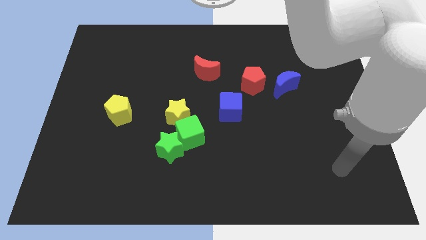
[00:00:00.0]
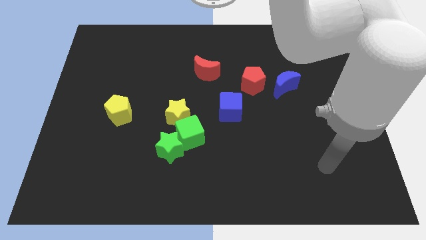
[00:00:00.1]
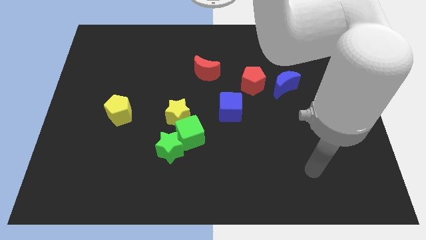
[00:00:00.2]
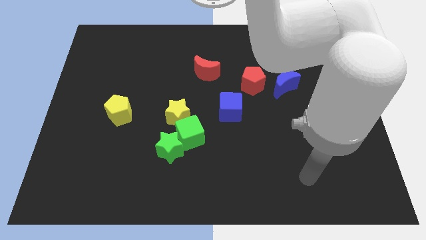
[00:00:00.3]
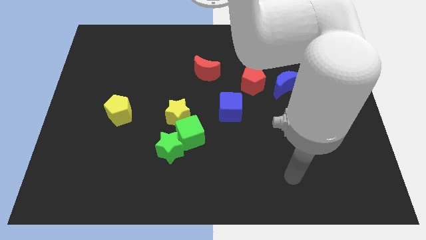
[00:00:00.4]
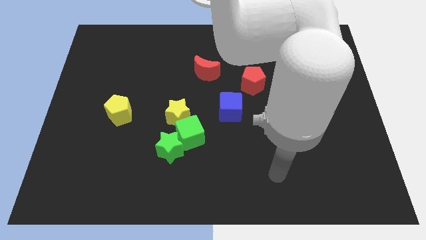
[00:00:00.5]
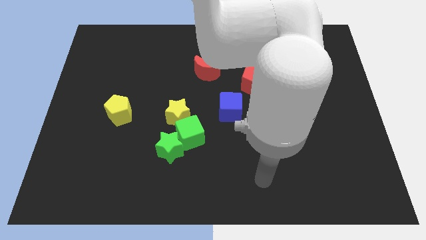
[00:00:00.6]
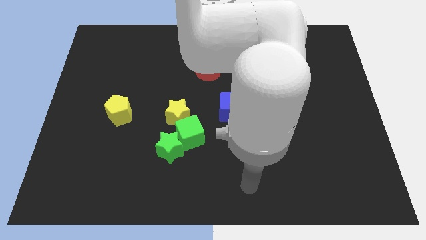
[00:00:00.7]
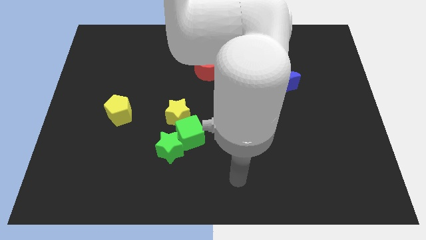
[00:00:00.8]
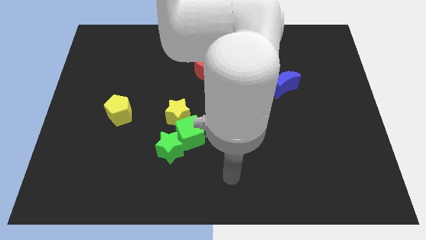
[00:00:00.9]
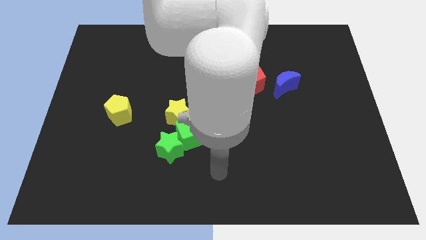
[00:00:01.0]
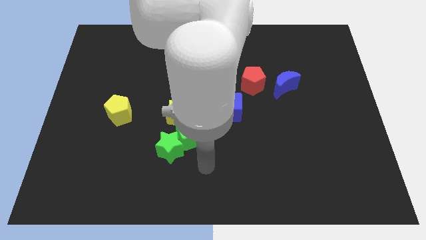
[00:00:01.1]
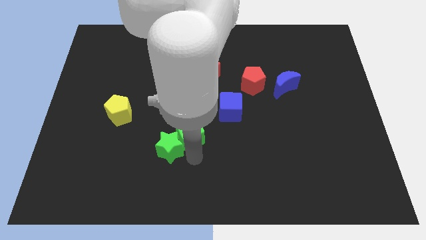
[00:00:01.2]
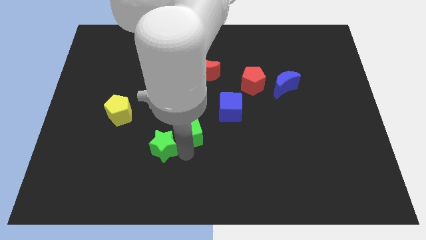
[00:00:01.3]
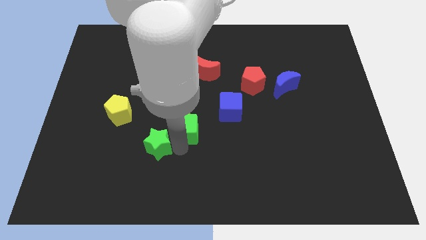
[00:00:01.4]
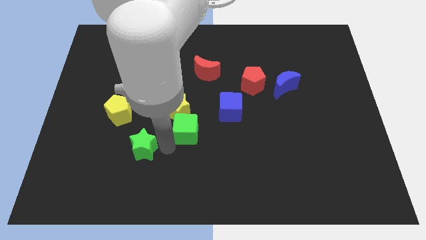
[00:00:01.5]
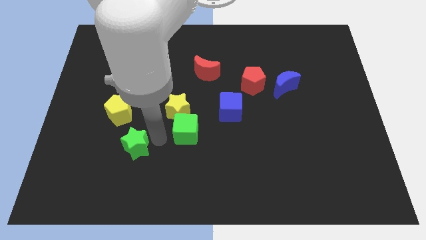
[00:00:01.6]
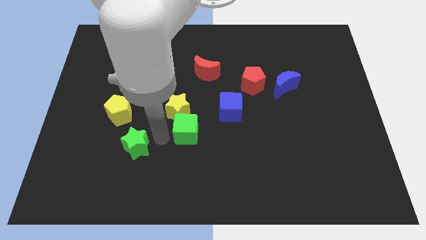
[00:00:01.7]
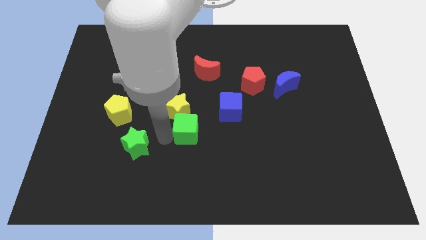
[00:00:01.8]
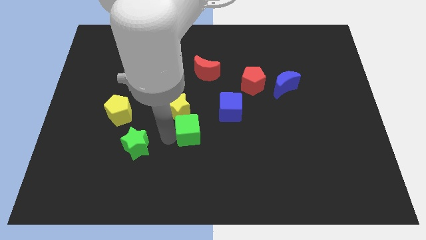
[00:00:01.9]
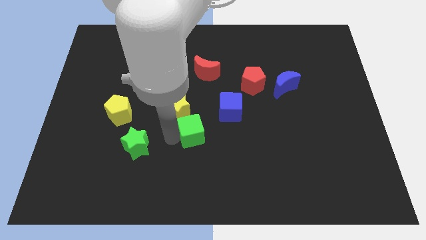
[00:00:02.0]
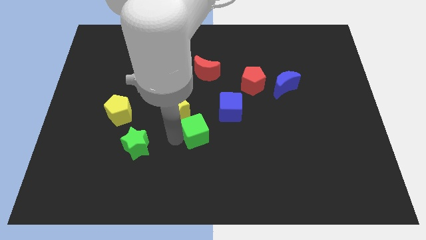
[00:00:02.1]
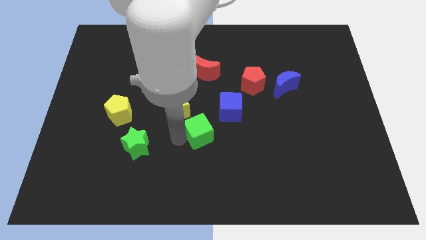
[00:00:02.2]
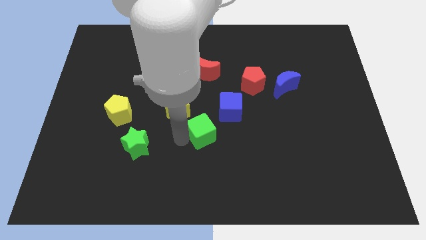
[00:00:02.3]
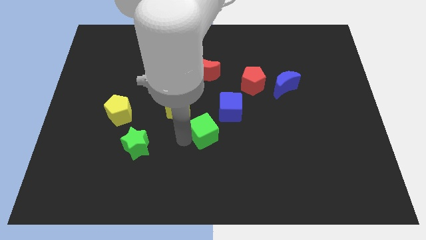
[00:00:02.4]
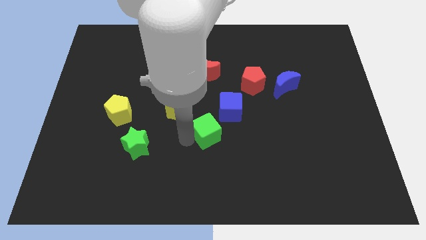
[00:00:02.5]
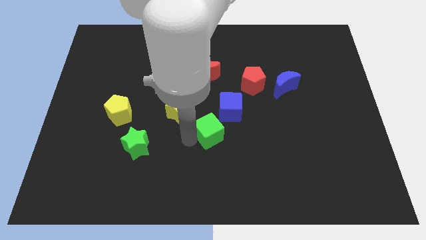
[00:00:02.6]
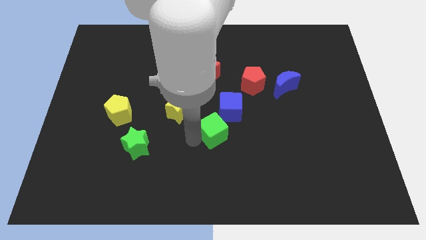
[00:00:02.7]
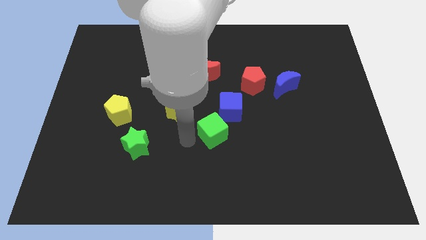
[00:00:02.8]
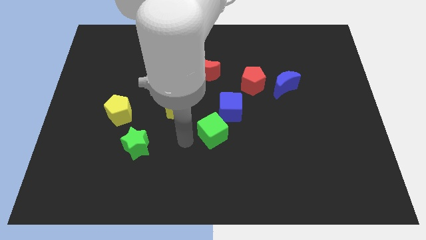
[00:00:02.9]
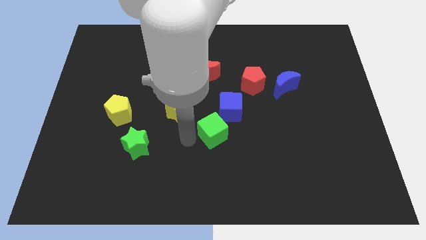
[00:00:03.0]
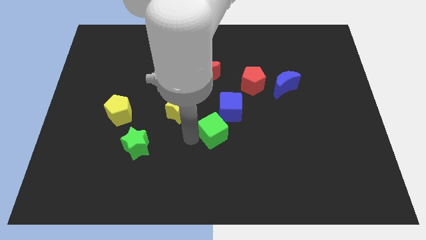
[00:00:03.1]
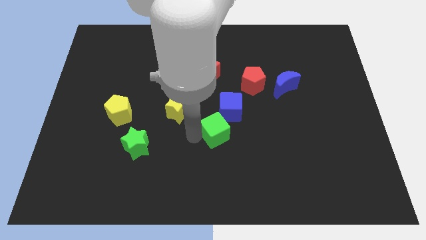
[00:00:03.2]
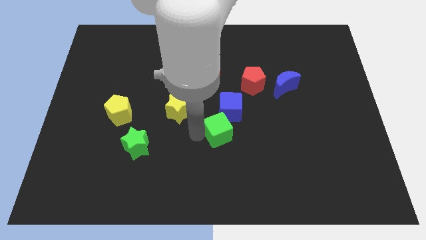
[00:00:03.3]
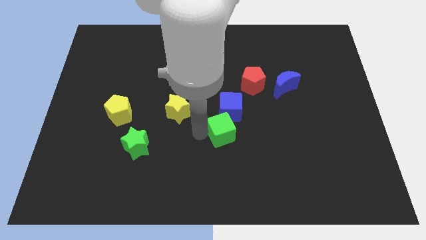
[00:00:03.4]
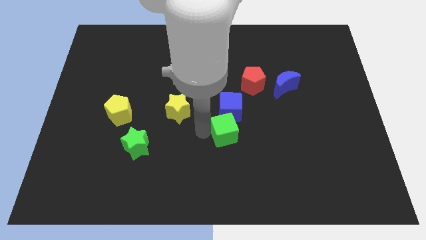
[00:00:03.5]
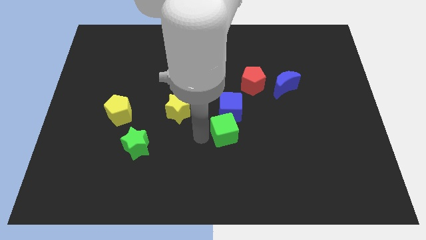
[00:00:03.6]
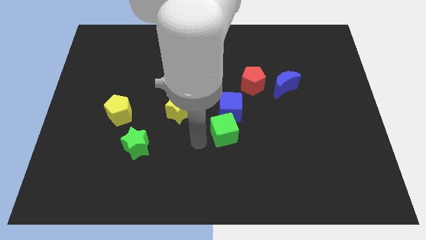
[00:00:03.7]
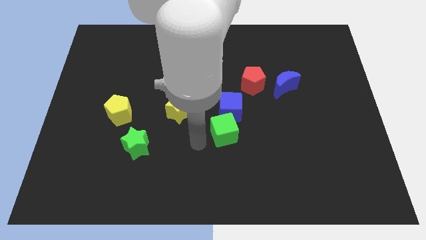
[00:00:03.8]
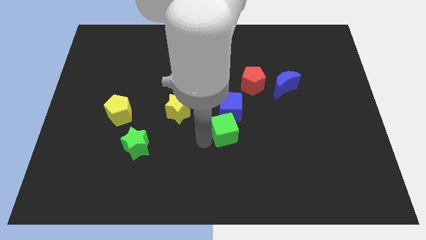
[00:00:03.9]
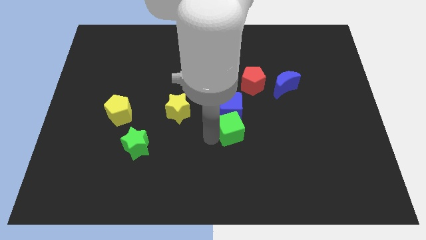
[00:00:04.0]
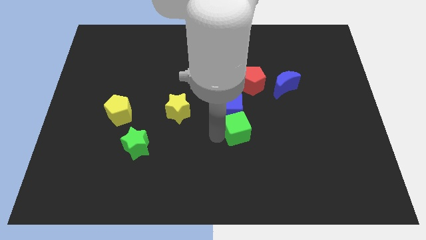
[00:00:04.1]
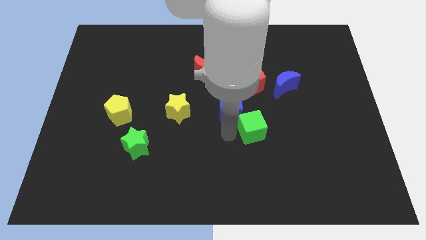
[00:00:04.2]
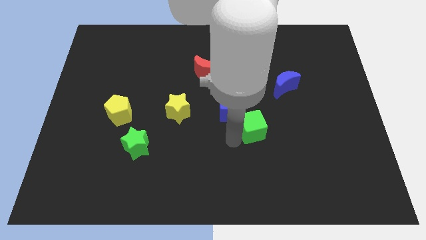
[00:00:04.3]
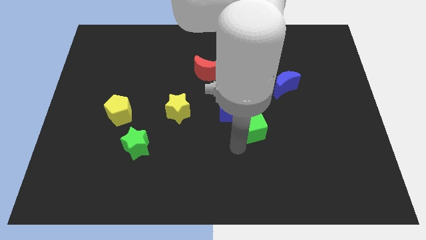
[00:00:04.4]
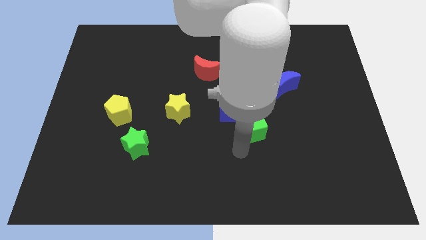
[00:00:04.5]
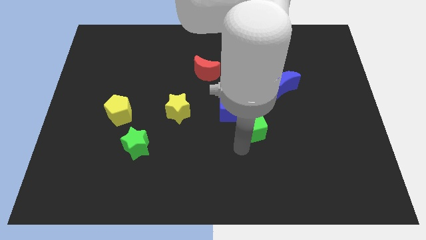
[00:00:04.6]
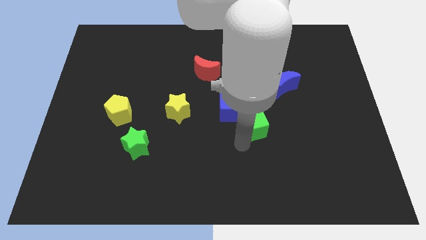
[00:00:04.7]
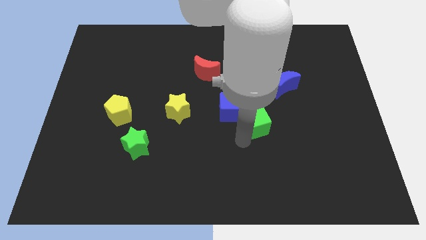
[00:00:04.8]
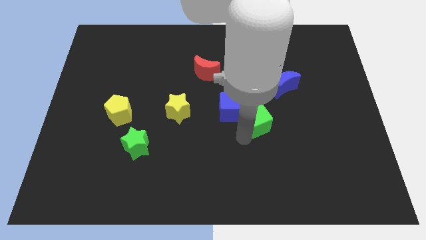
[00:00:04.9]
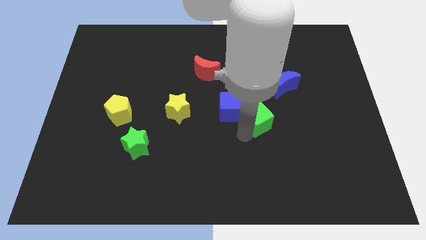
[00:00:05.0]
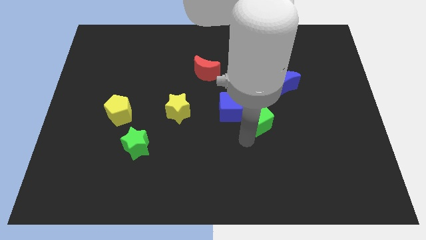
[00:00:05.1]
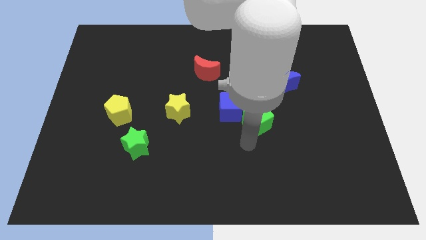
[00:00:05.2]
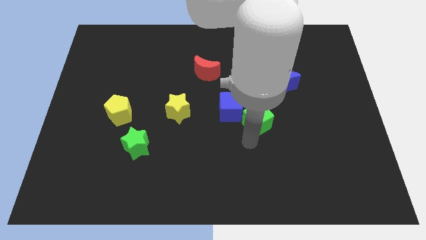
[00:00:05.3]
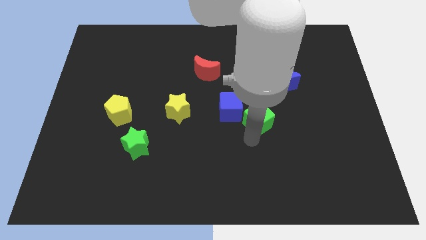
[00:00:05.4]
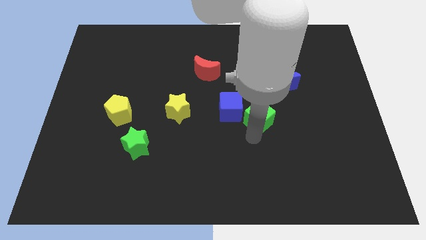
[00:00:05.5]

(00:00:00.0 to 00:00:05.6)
put the green cube diagonally down and to the left of the blue moon

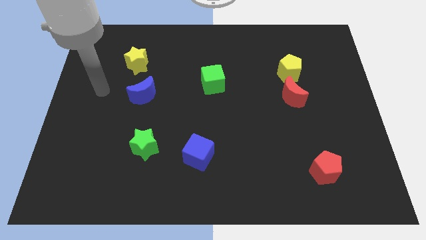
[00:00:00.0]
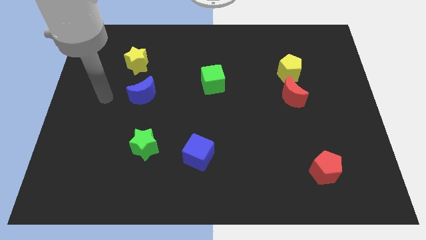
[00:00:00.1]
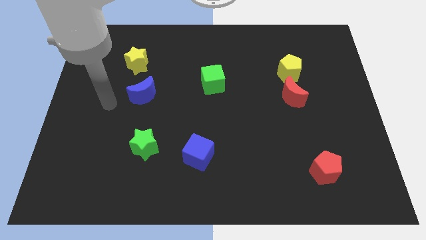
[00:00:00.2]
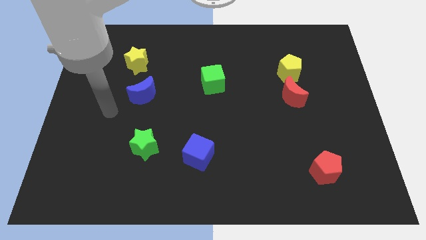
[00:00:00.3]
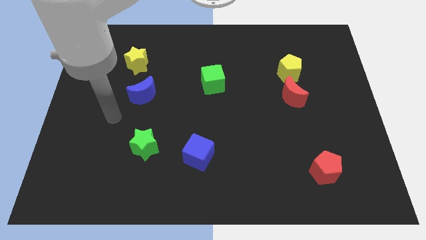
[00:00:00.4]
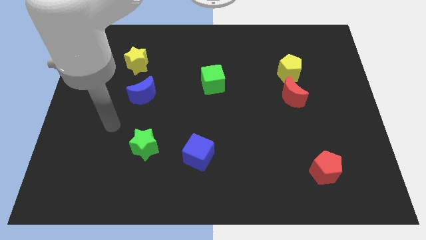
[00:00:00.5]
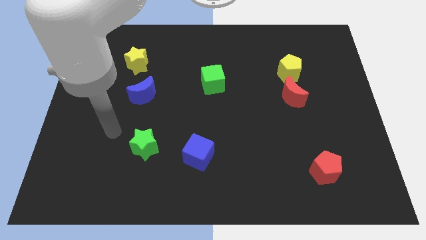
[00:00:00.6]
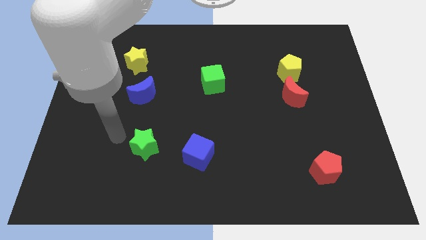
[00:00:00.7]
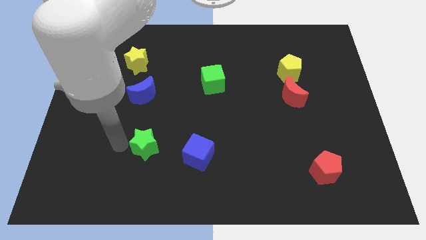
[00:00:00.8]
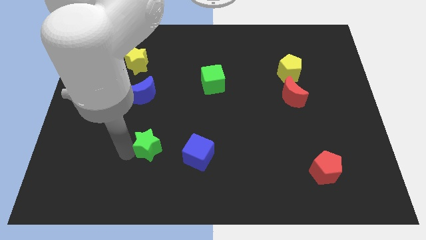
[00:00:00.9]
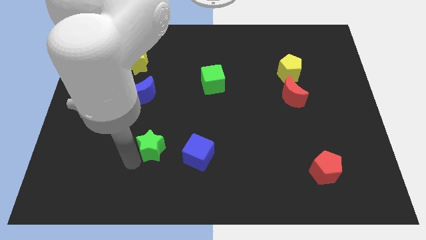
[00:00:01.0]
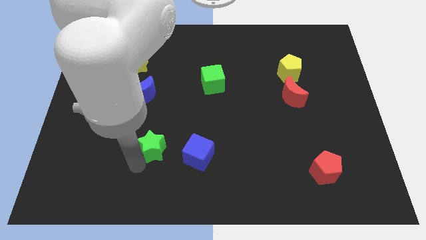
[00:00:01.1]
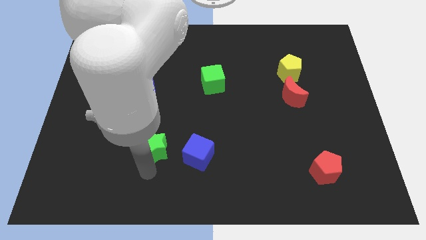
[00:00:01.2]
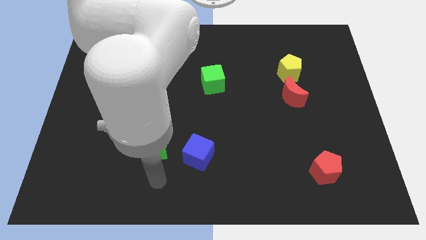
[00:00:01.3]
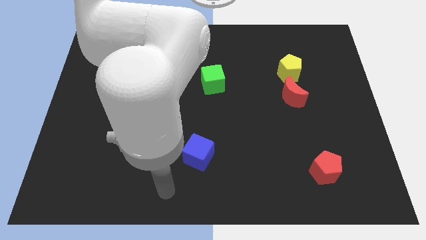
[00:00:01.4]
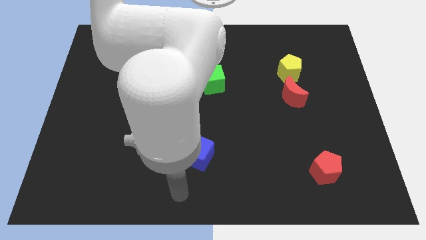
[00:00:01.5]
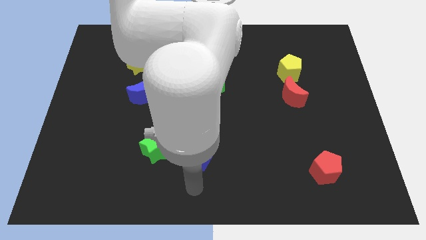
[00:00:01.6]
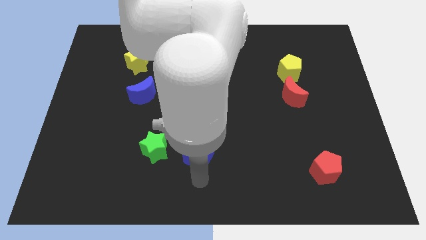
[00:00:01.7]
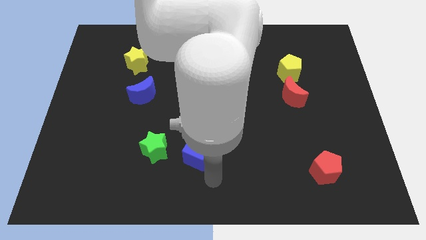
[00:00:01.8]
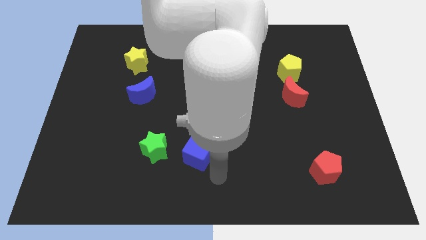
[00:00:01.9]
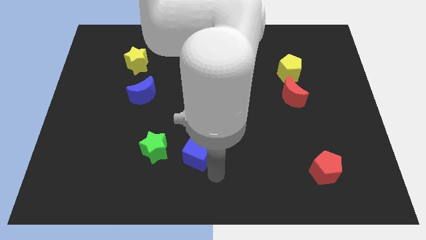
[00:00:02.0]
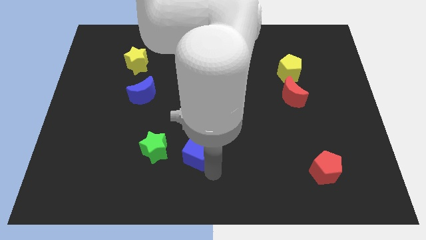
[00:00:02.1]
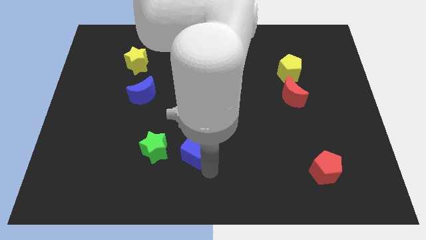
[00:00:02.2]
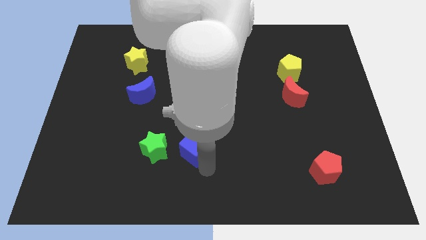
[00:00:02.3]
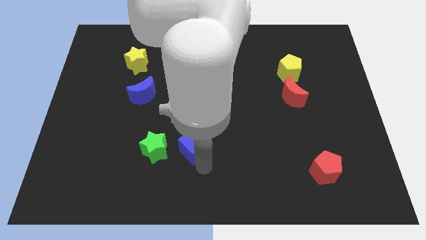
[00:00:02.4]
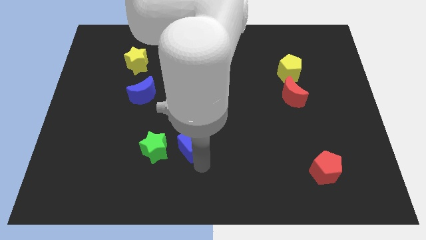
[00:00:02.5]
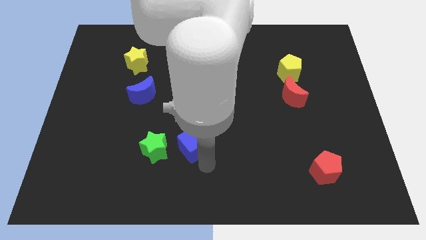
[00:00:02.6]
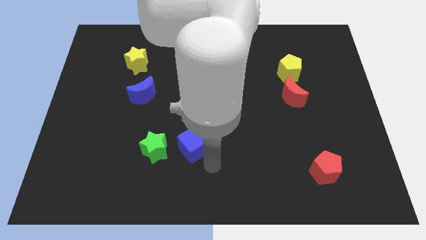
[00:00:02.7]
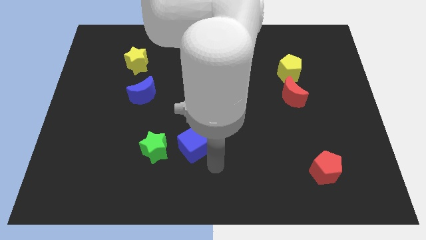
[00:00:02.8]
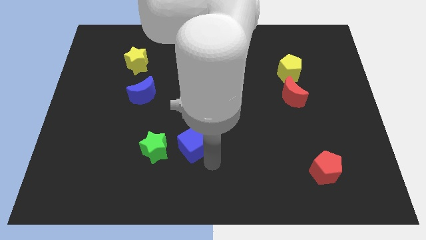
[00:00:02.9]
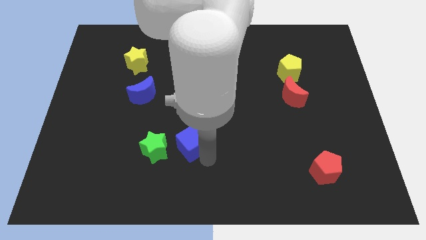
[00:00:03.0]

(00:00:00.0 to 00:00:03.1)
slide the blue cube diagonally up and to the right of the green star
